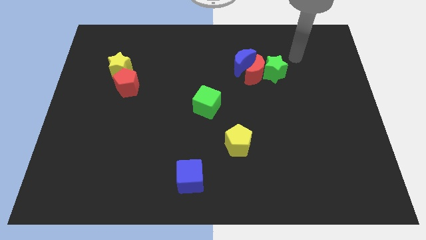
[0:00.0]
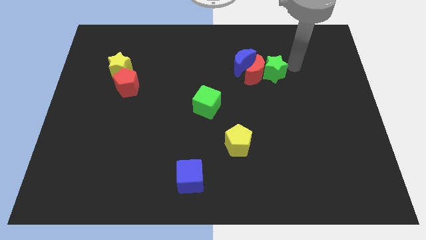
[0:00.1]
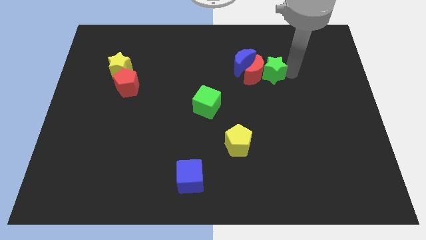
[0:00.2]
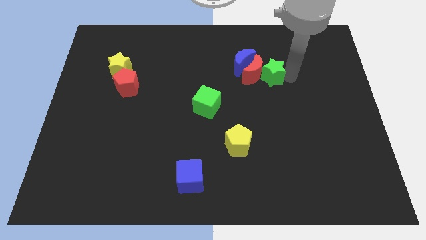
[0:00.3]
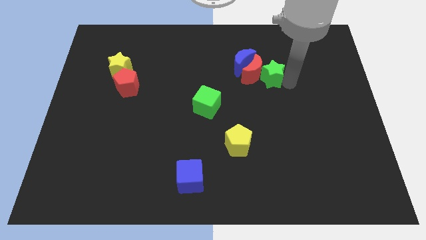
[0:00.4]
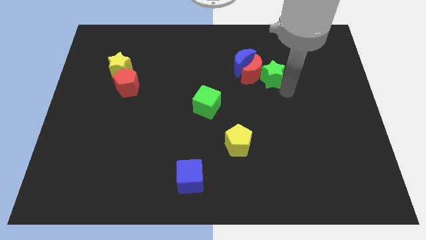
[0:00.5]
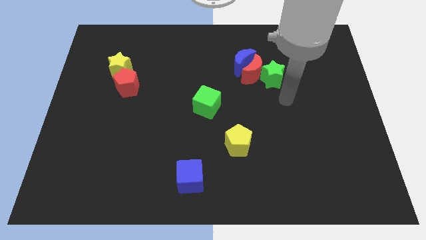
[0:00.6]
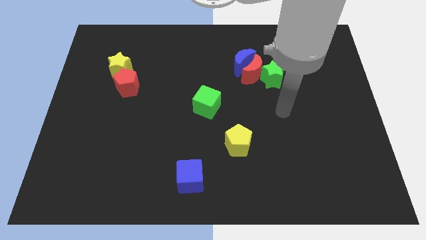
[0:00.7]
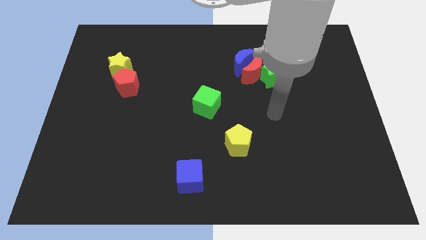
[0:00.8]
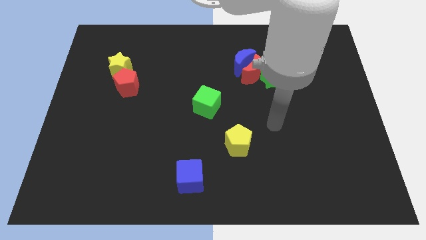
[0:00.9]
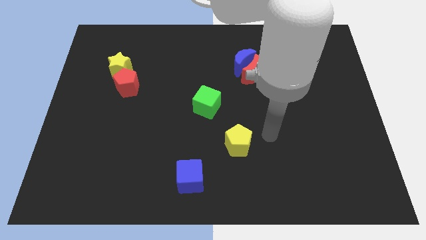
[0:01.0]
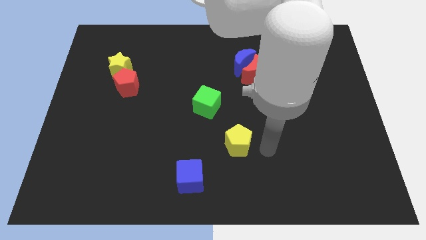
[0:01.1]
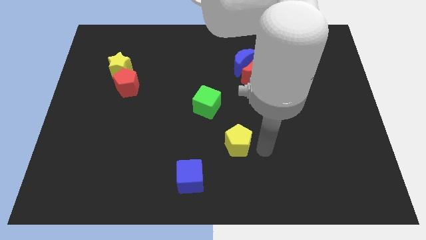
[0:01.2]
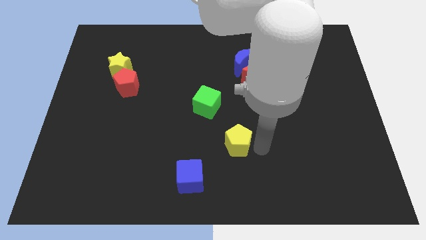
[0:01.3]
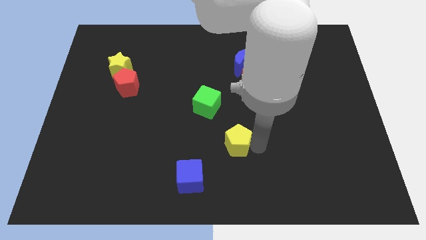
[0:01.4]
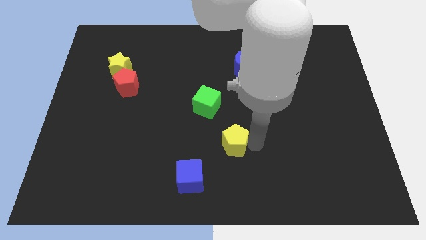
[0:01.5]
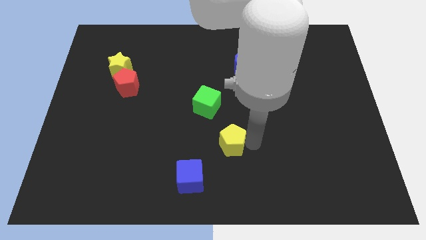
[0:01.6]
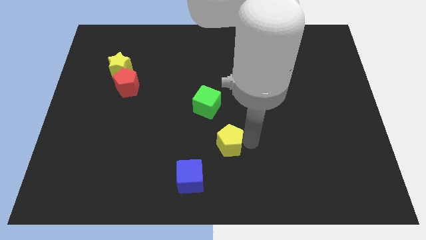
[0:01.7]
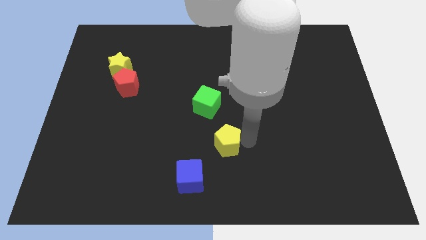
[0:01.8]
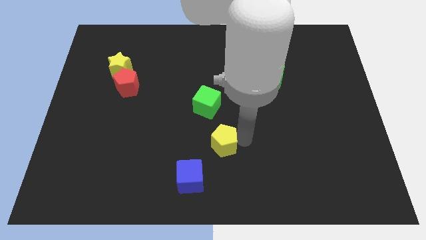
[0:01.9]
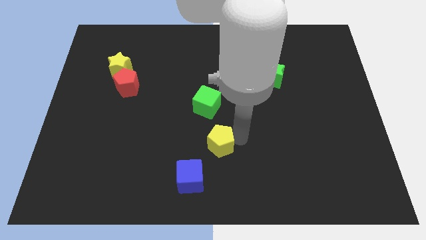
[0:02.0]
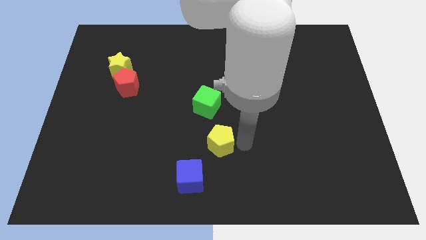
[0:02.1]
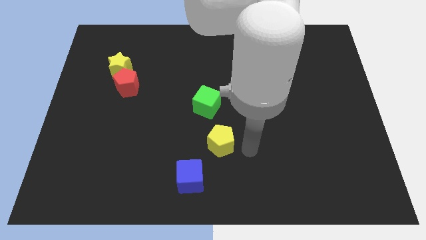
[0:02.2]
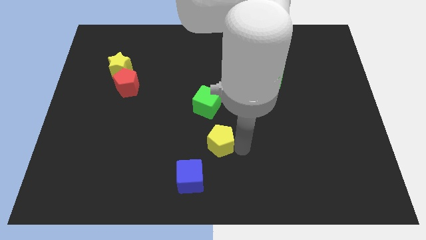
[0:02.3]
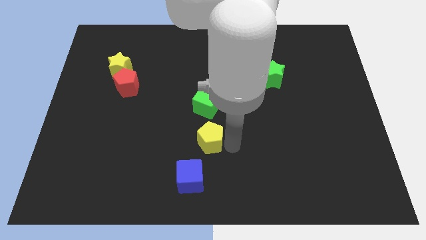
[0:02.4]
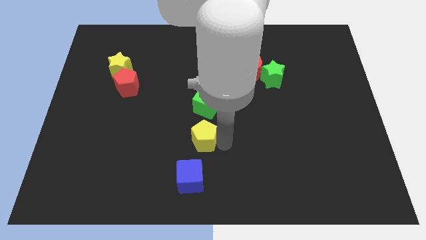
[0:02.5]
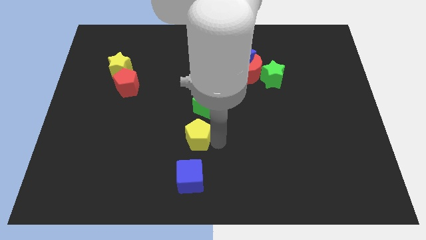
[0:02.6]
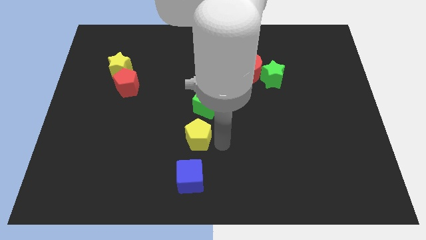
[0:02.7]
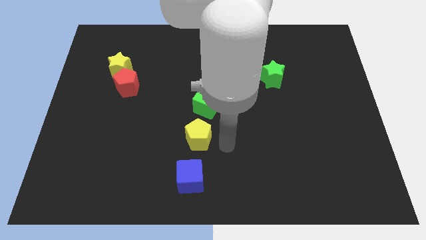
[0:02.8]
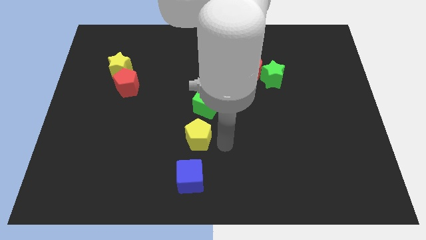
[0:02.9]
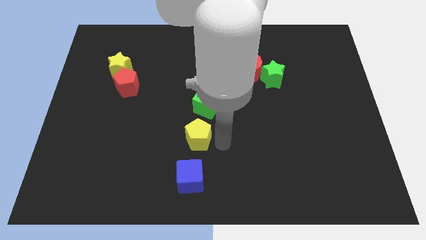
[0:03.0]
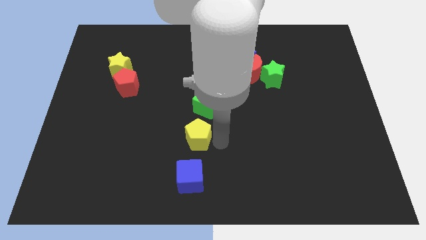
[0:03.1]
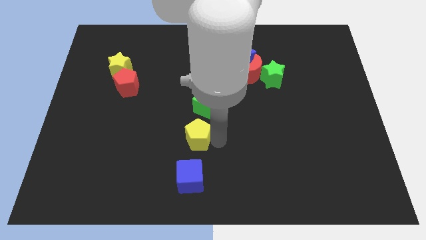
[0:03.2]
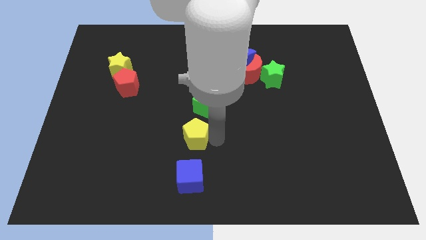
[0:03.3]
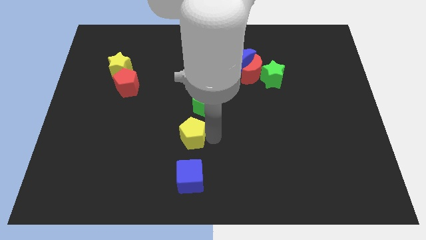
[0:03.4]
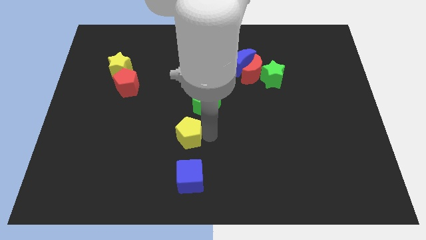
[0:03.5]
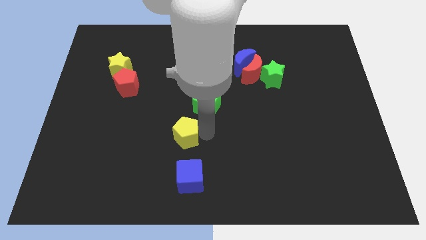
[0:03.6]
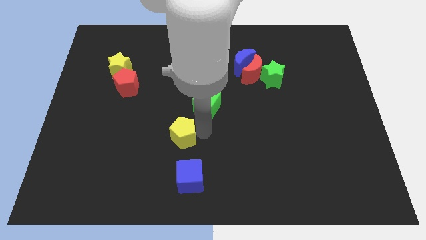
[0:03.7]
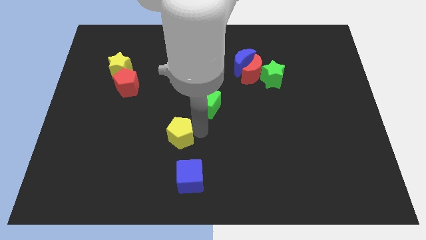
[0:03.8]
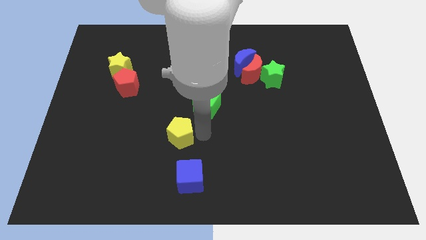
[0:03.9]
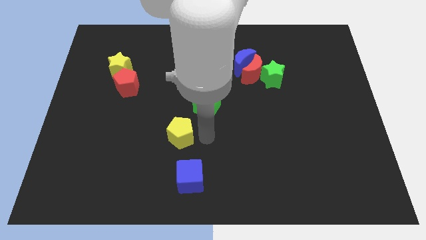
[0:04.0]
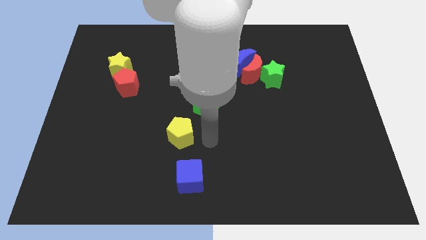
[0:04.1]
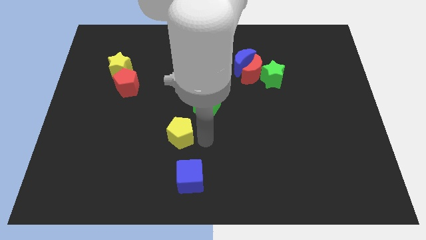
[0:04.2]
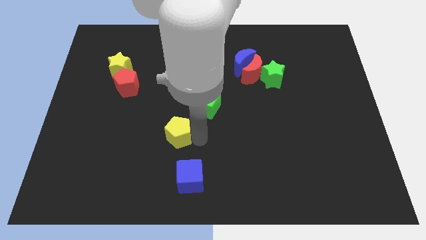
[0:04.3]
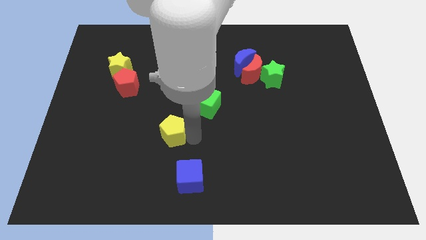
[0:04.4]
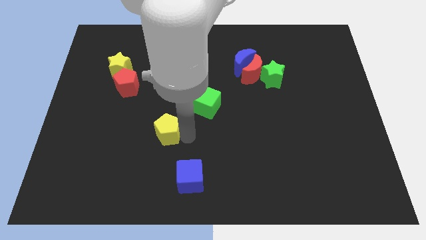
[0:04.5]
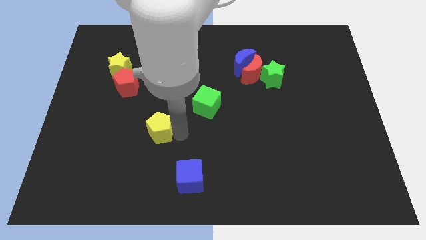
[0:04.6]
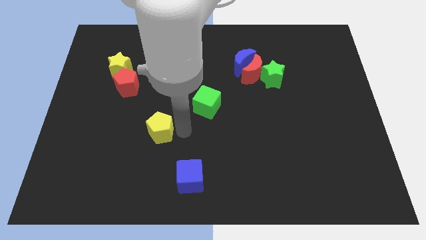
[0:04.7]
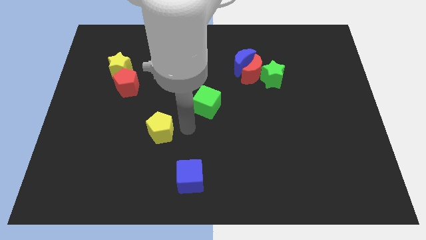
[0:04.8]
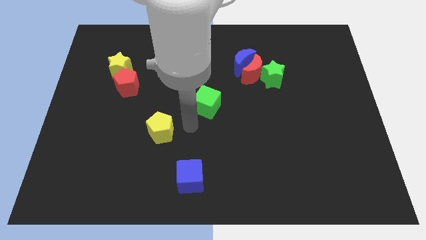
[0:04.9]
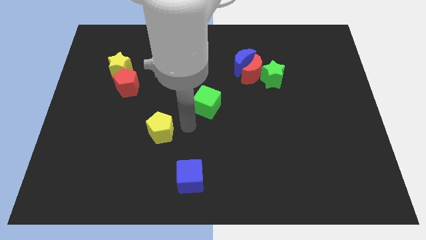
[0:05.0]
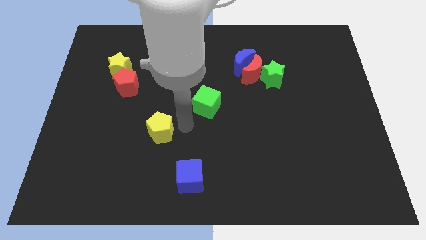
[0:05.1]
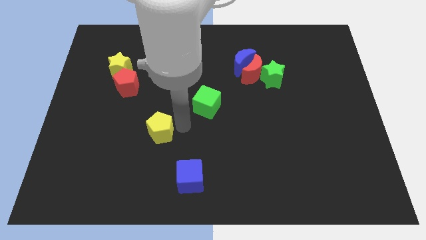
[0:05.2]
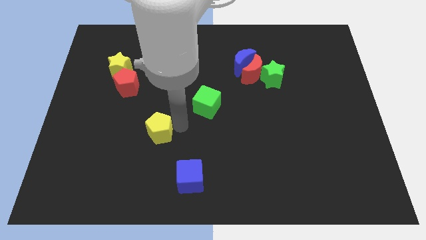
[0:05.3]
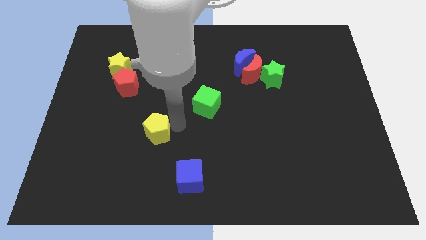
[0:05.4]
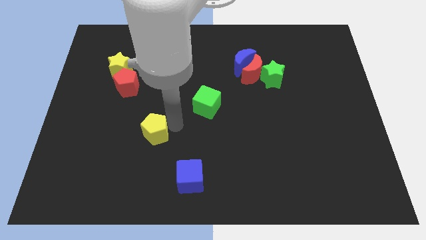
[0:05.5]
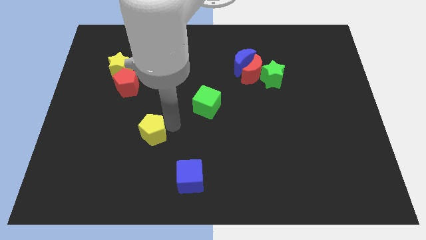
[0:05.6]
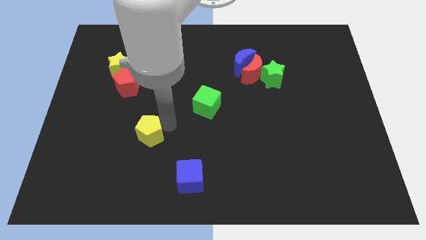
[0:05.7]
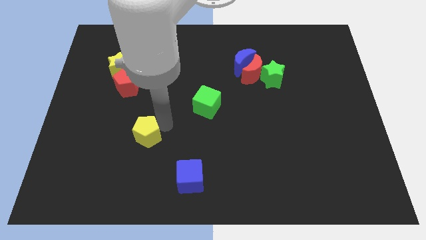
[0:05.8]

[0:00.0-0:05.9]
move the yellow pentagon to the left

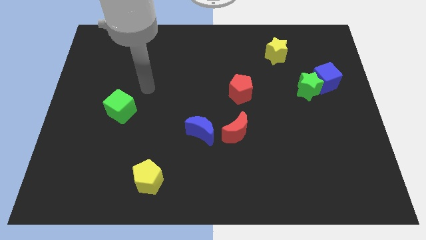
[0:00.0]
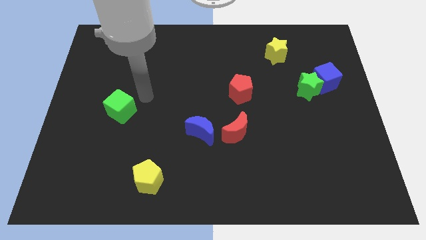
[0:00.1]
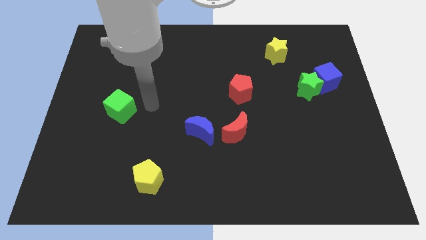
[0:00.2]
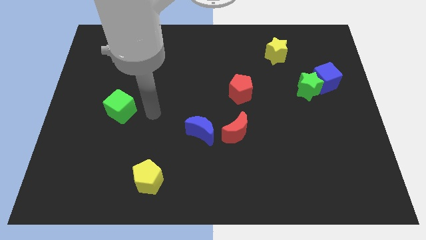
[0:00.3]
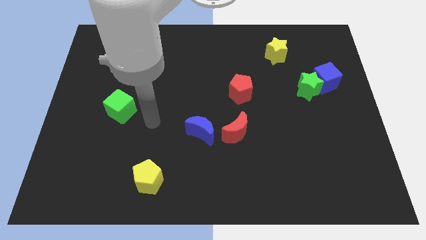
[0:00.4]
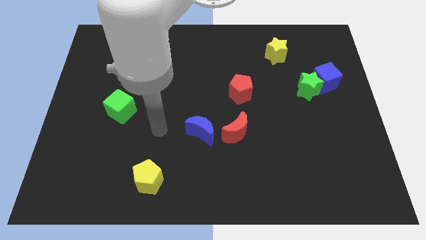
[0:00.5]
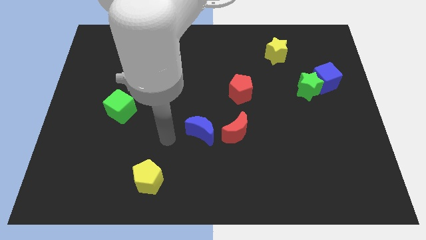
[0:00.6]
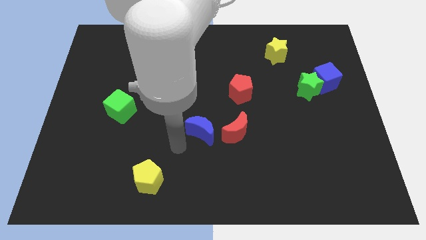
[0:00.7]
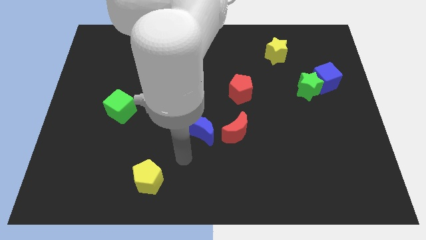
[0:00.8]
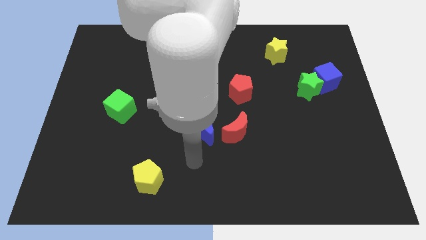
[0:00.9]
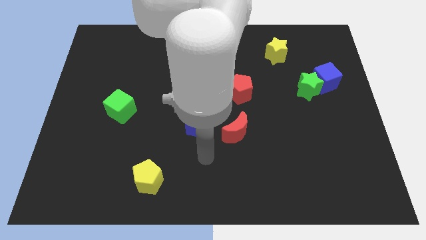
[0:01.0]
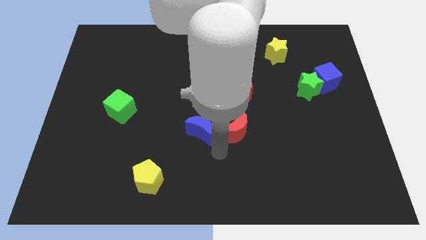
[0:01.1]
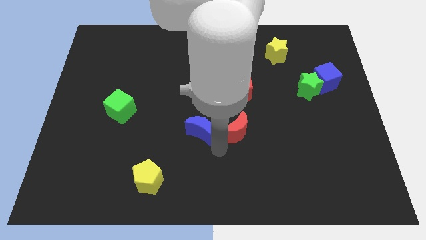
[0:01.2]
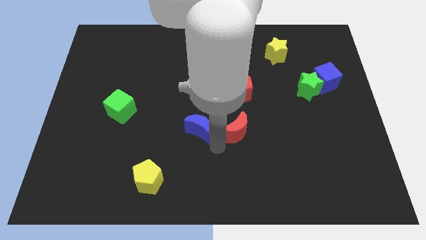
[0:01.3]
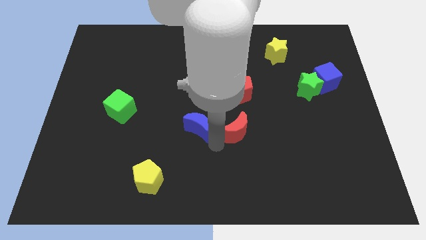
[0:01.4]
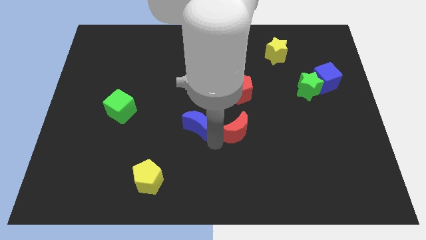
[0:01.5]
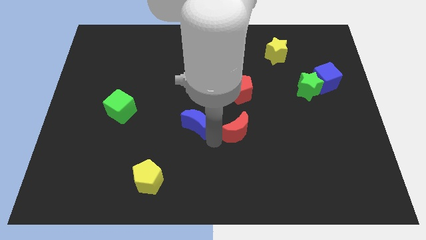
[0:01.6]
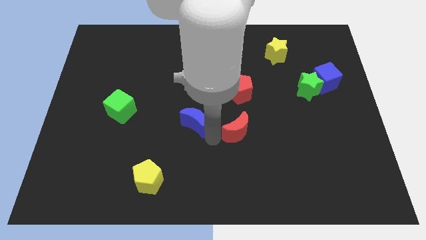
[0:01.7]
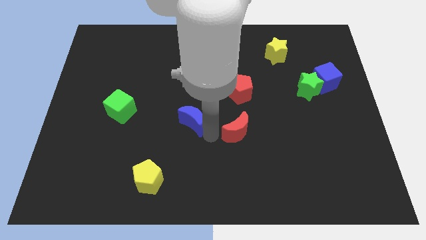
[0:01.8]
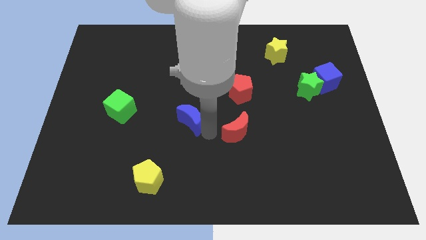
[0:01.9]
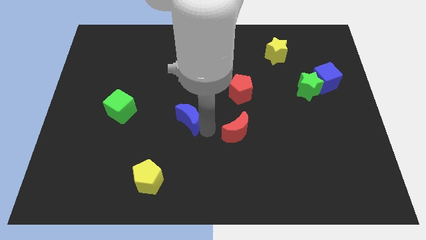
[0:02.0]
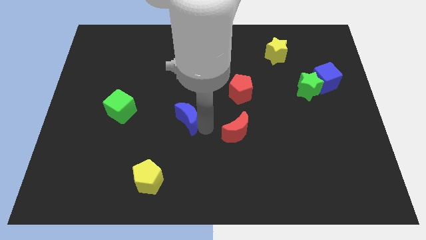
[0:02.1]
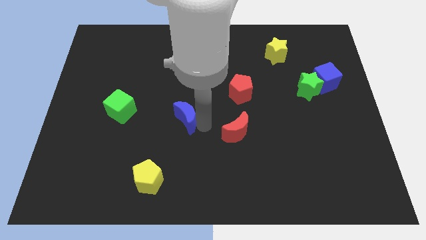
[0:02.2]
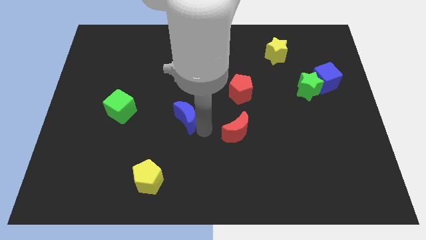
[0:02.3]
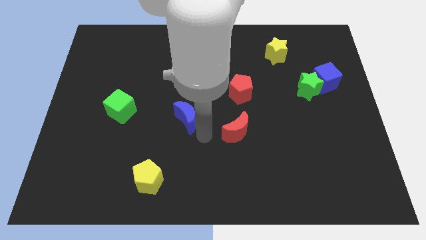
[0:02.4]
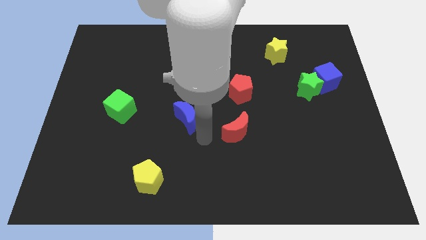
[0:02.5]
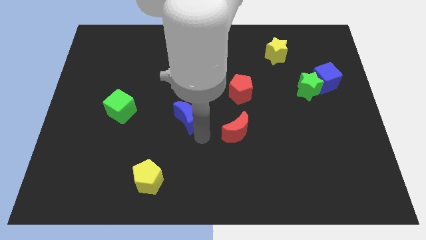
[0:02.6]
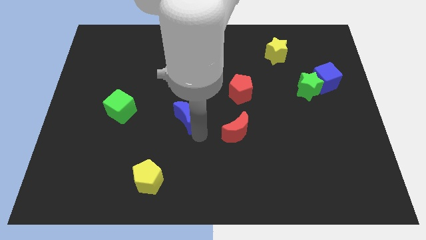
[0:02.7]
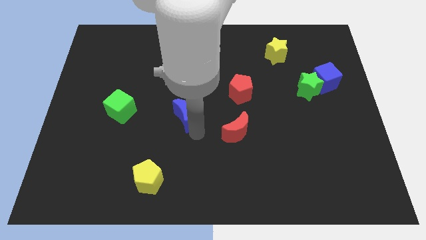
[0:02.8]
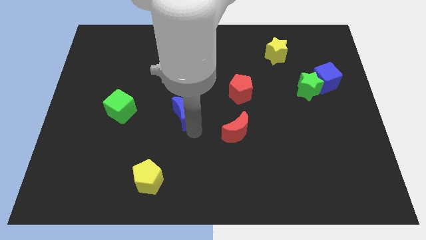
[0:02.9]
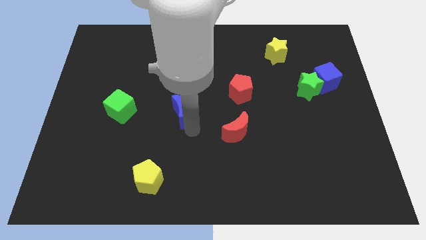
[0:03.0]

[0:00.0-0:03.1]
push the blue moon up and then to the left slightly
